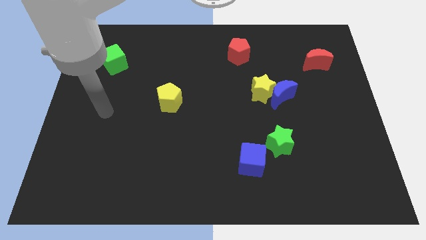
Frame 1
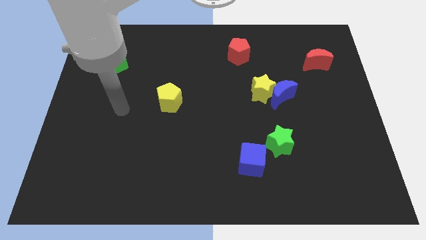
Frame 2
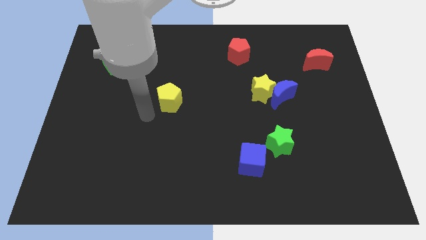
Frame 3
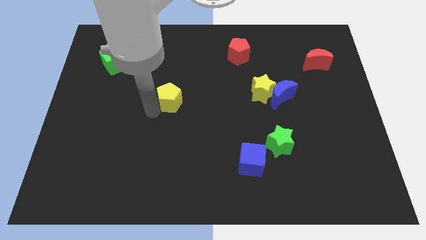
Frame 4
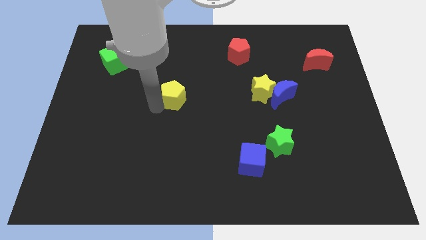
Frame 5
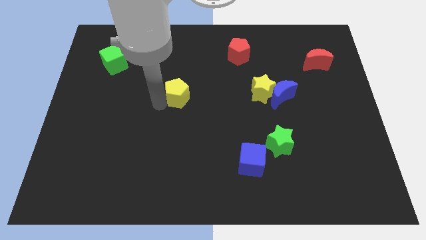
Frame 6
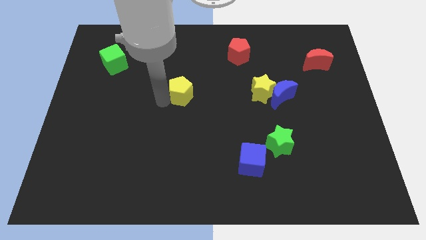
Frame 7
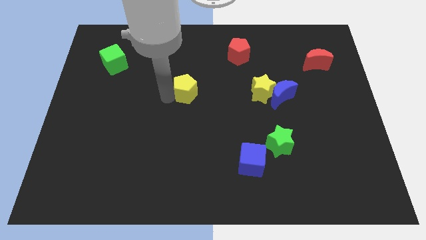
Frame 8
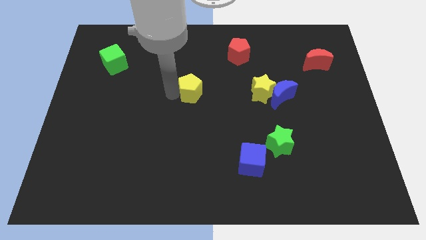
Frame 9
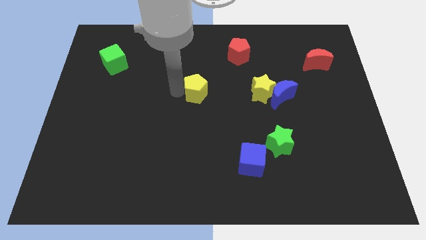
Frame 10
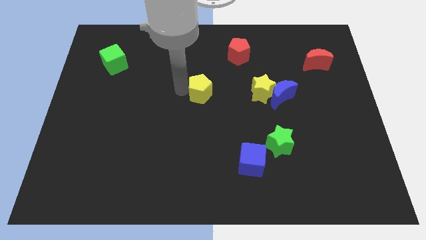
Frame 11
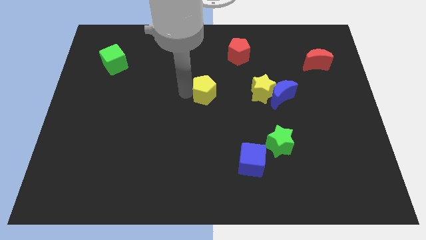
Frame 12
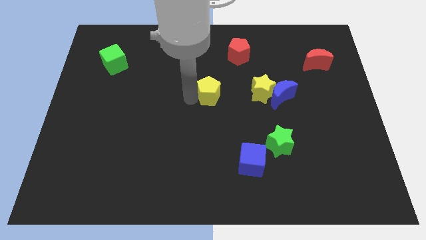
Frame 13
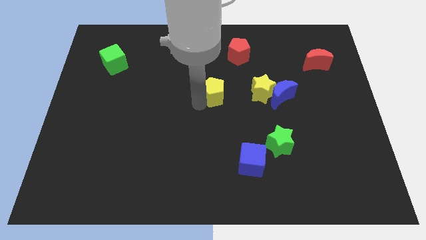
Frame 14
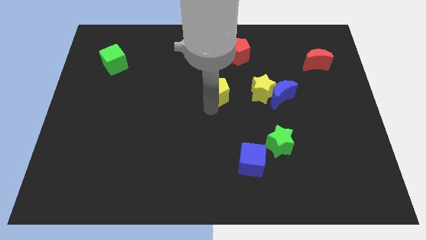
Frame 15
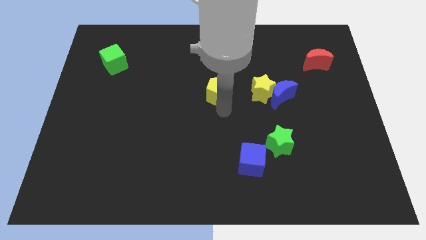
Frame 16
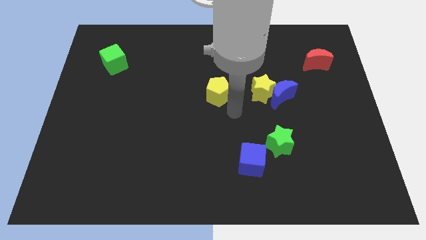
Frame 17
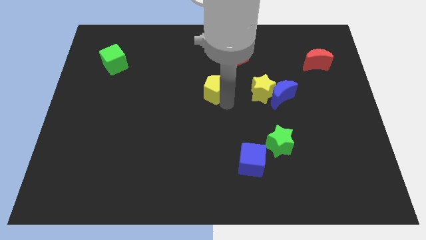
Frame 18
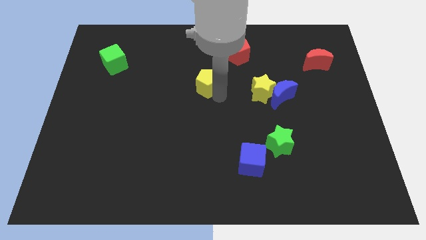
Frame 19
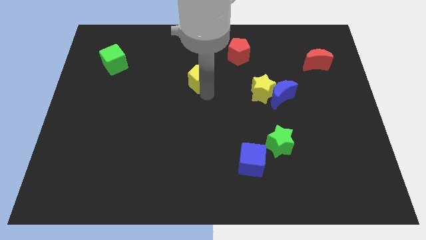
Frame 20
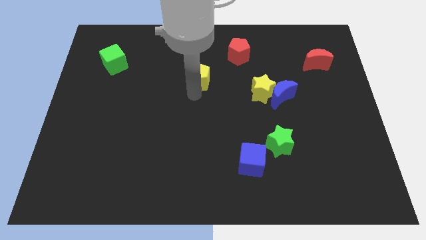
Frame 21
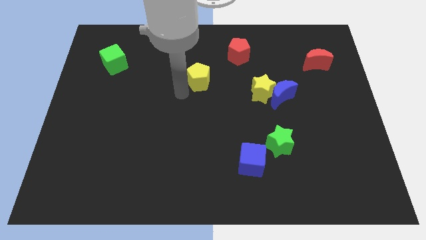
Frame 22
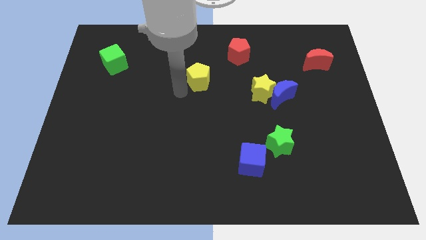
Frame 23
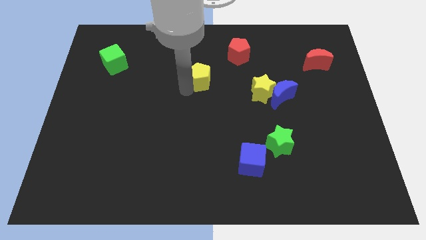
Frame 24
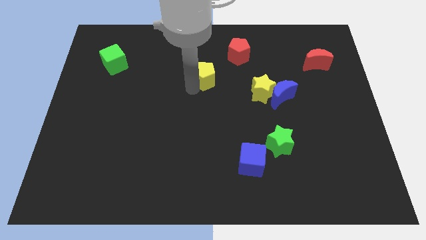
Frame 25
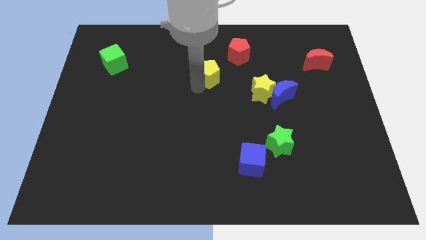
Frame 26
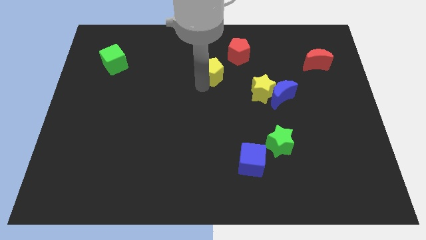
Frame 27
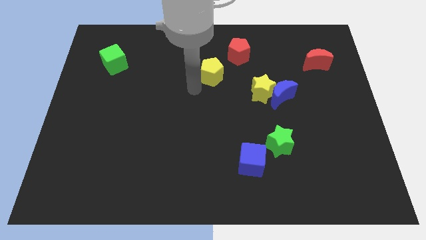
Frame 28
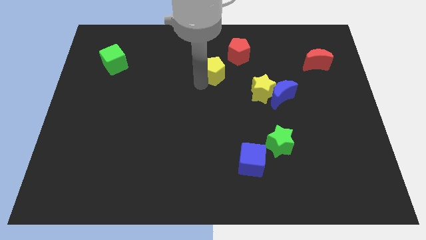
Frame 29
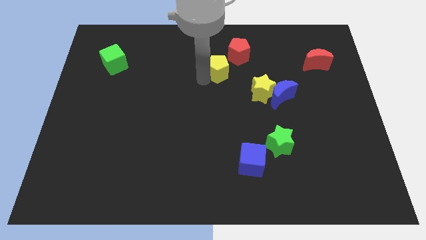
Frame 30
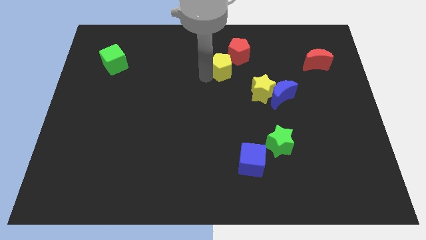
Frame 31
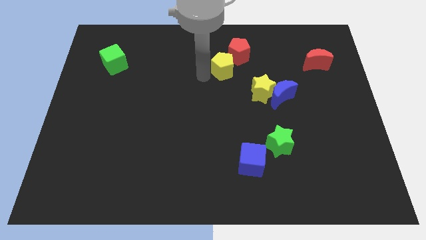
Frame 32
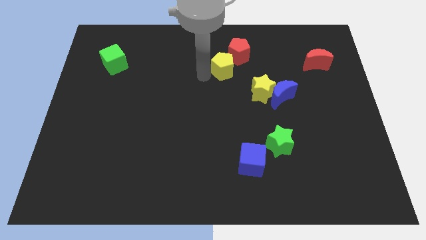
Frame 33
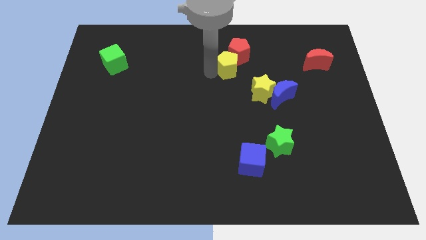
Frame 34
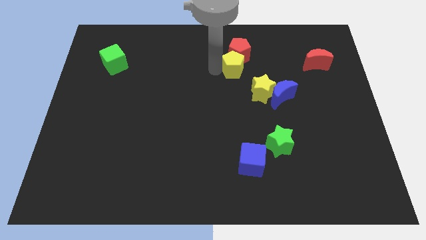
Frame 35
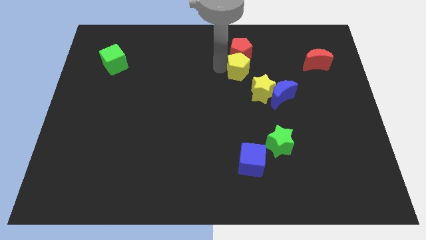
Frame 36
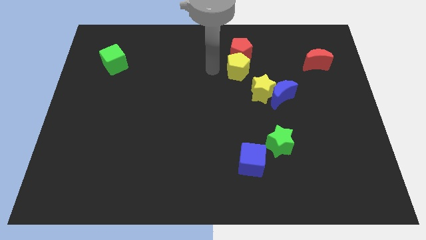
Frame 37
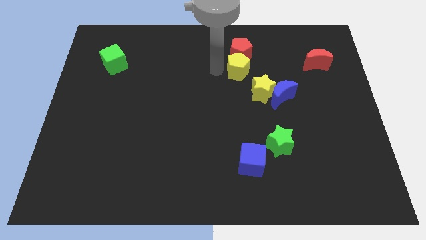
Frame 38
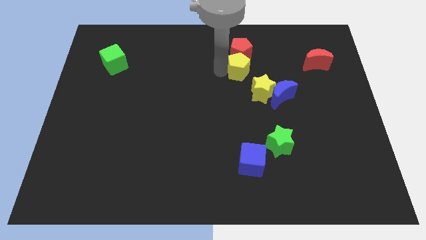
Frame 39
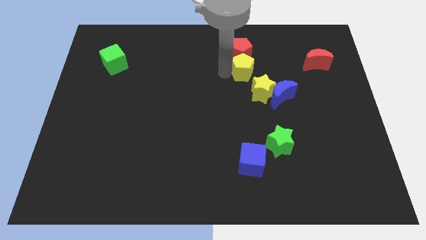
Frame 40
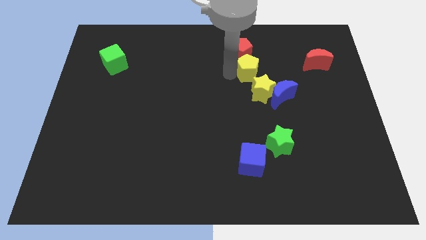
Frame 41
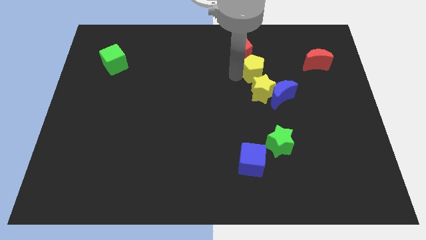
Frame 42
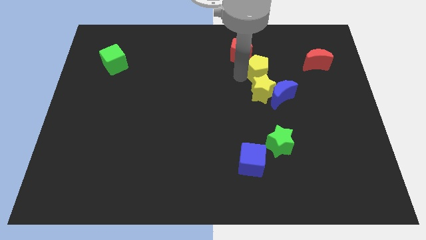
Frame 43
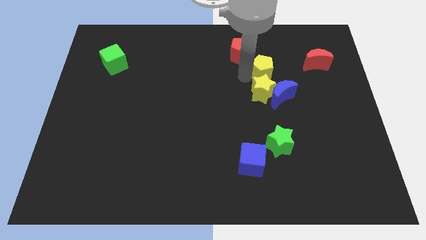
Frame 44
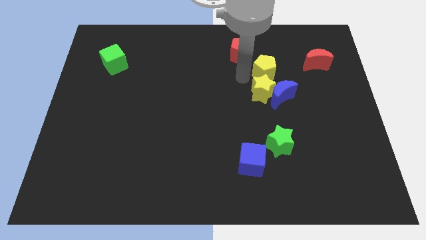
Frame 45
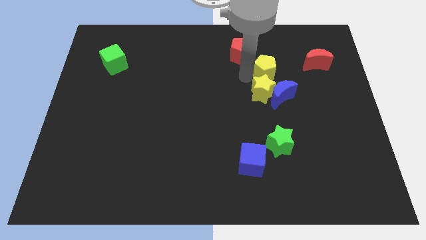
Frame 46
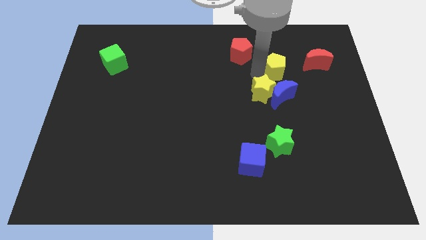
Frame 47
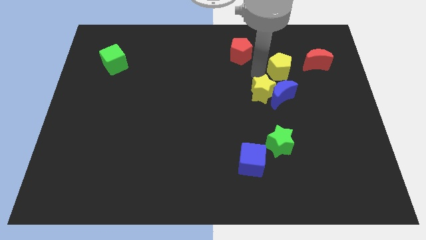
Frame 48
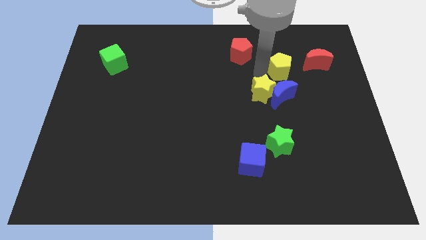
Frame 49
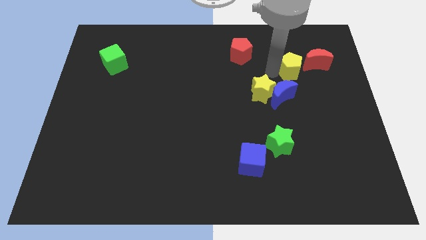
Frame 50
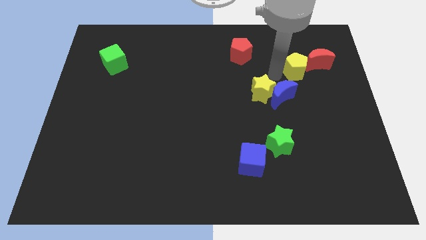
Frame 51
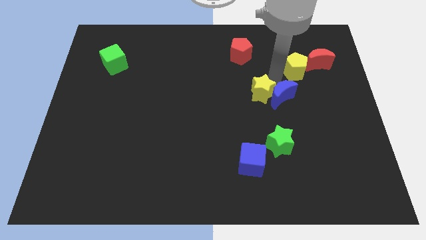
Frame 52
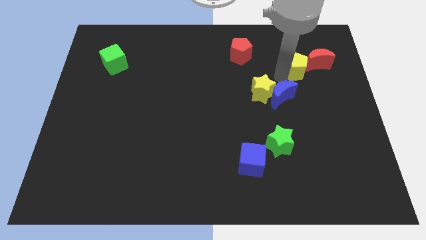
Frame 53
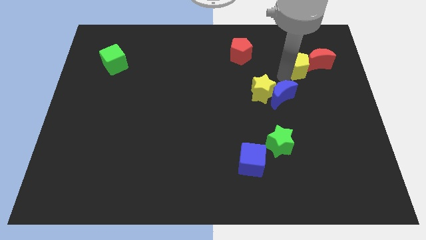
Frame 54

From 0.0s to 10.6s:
move the yellow pentagon towards the red moon

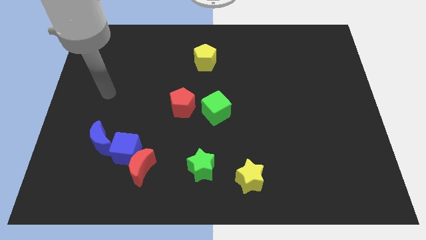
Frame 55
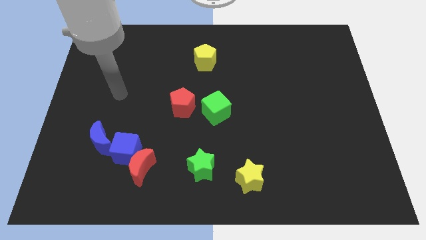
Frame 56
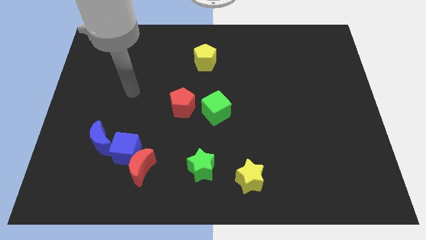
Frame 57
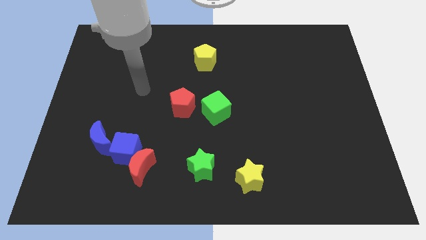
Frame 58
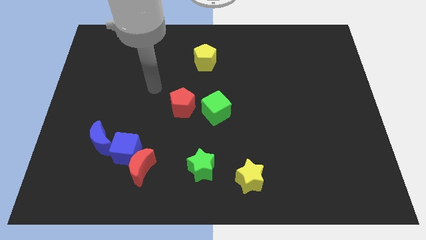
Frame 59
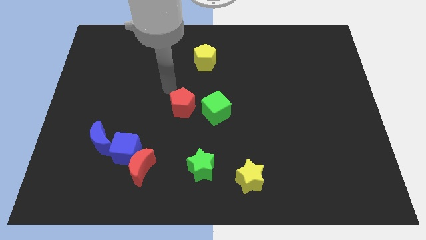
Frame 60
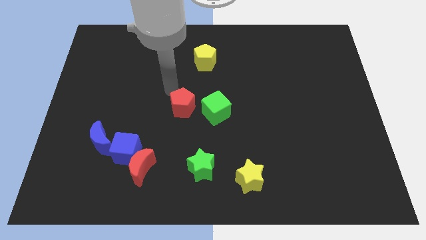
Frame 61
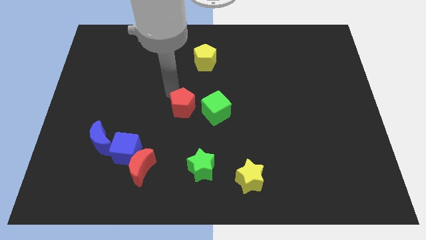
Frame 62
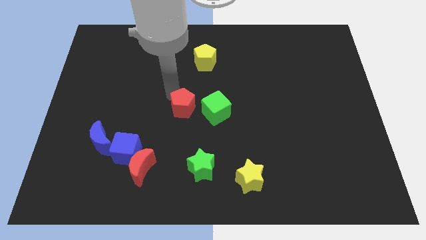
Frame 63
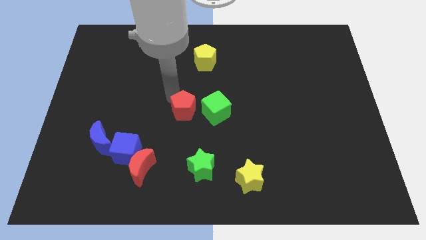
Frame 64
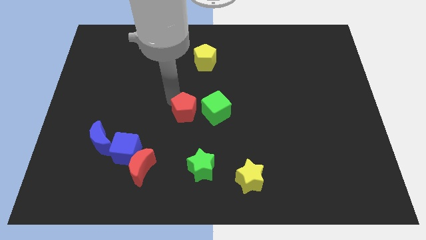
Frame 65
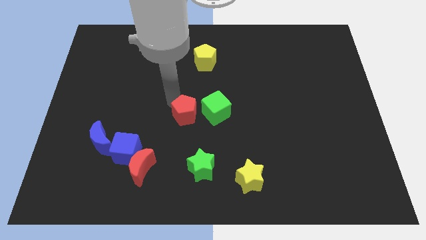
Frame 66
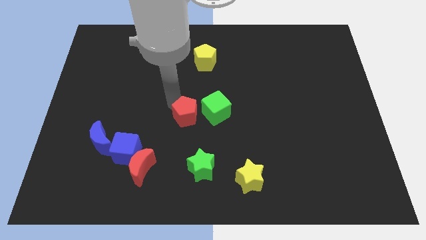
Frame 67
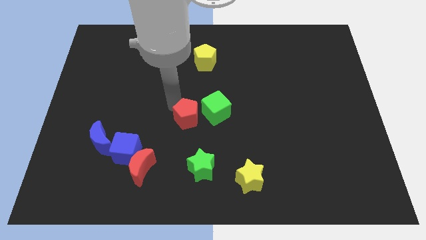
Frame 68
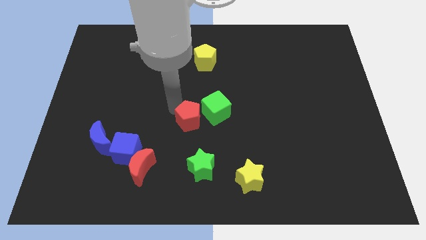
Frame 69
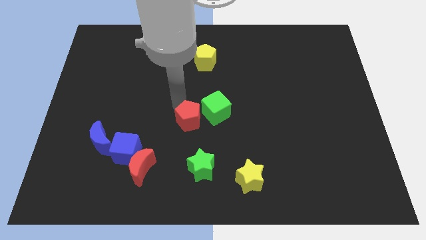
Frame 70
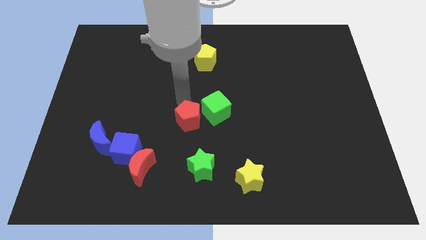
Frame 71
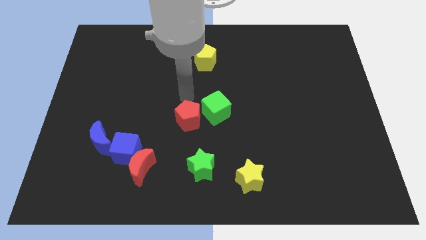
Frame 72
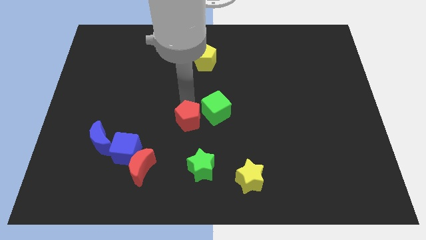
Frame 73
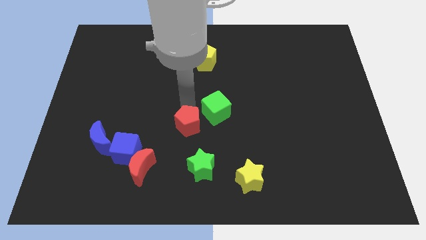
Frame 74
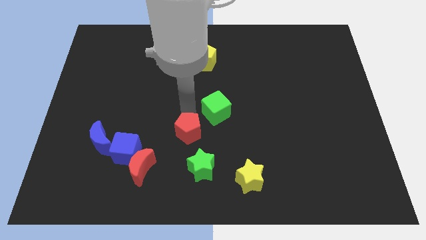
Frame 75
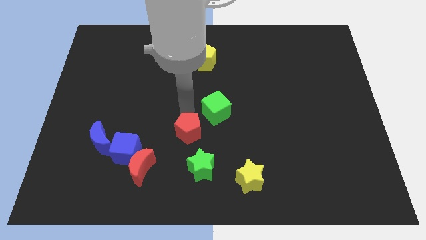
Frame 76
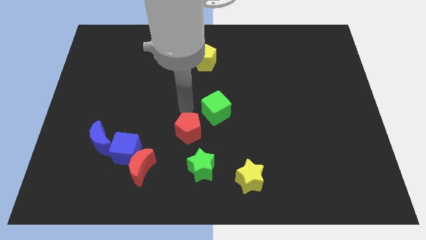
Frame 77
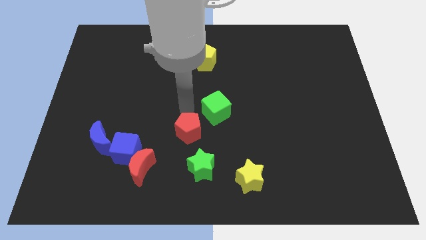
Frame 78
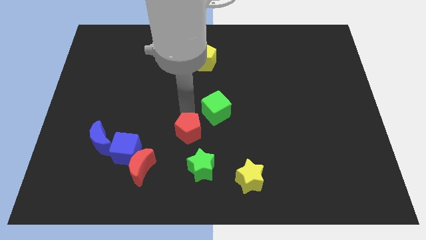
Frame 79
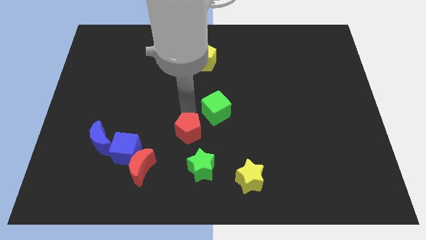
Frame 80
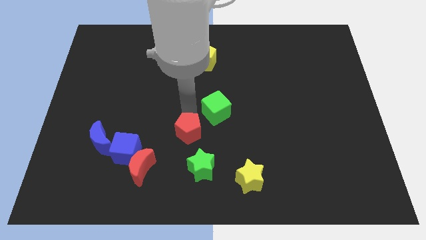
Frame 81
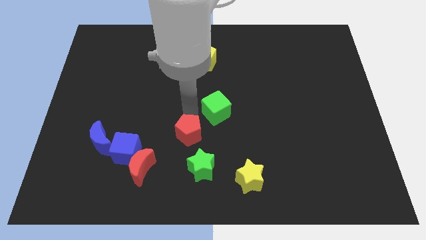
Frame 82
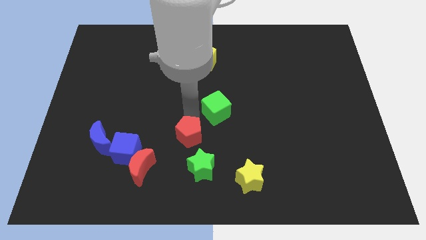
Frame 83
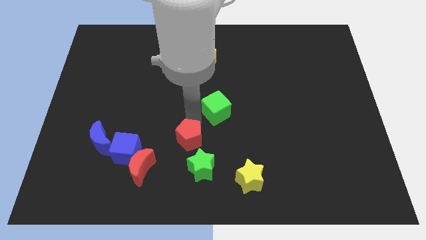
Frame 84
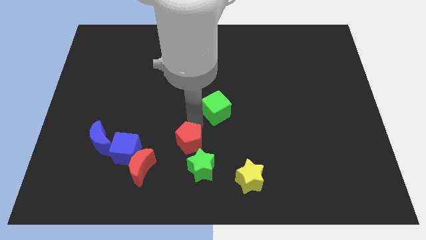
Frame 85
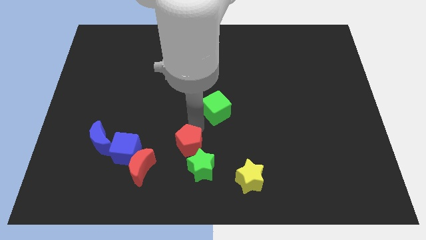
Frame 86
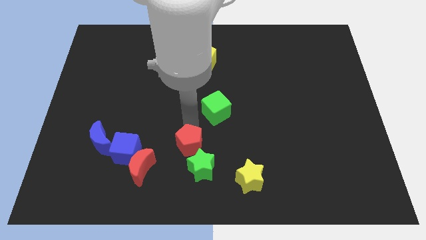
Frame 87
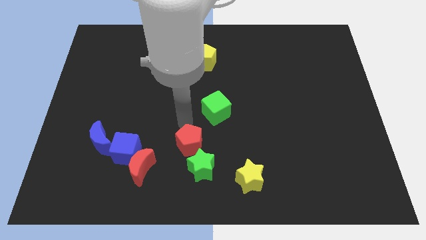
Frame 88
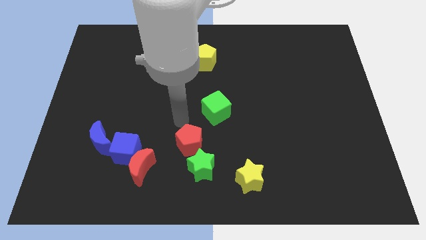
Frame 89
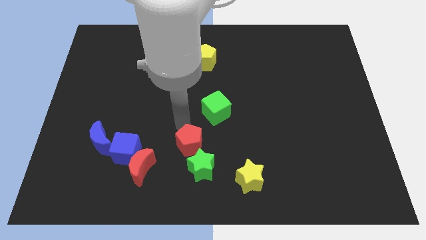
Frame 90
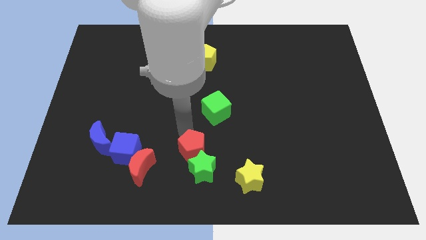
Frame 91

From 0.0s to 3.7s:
slide the red pentagon next to the green star
